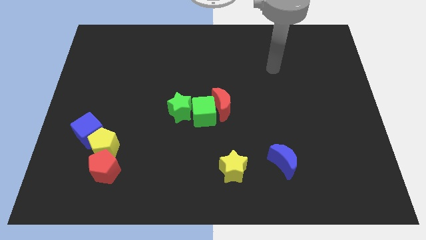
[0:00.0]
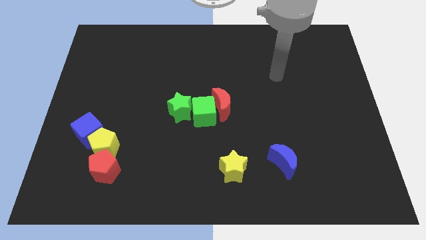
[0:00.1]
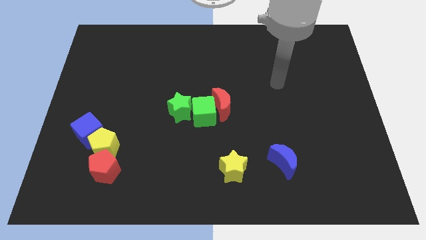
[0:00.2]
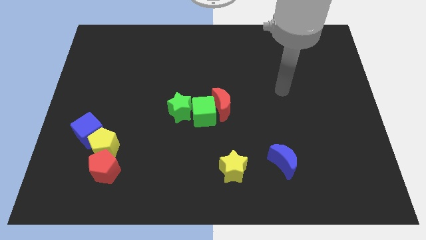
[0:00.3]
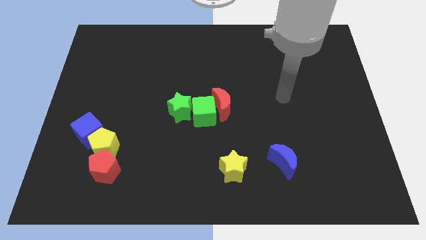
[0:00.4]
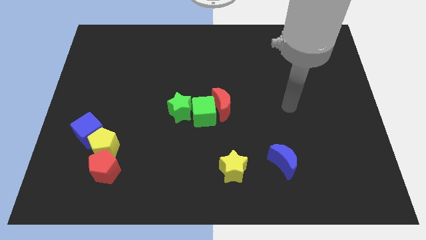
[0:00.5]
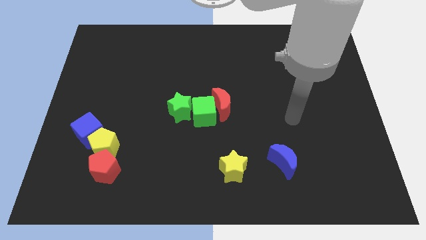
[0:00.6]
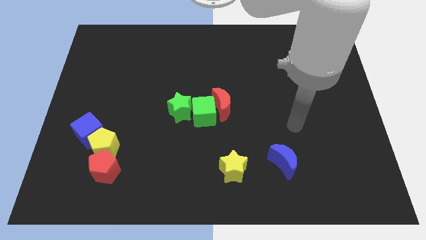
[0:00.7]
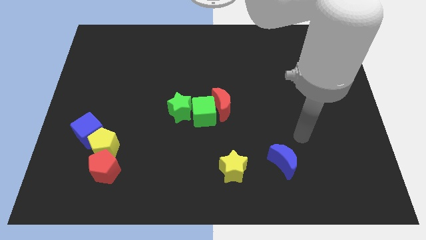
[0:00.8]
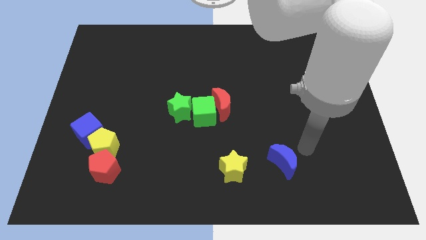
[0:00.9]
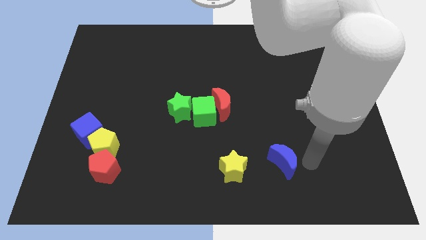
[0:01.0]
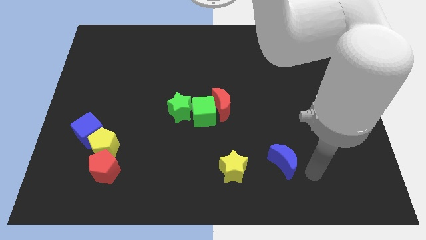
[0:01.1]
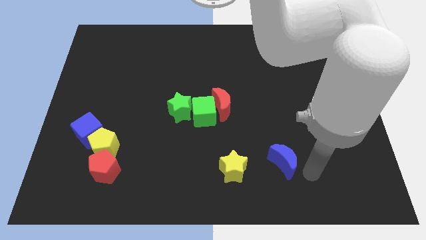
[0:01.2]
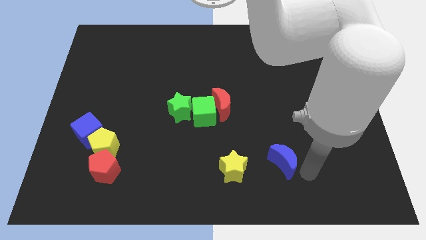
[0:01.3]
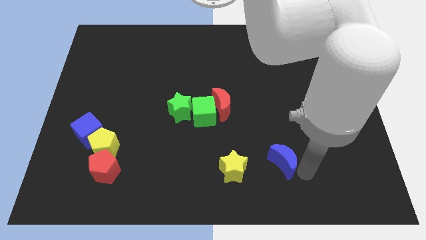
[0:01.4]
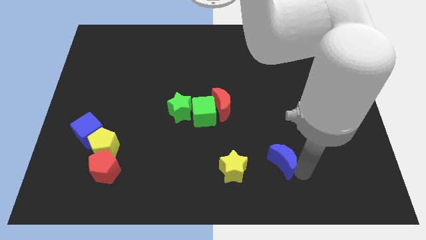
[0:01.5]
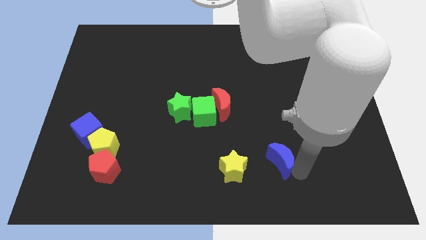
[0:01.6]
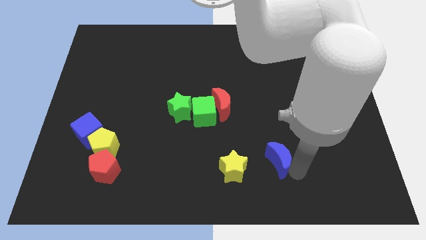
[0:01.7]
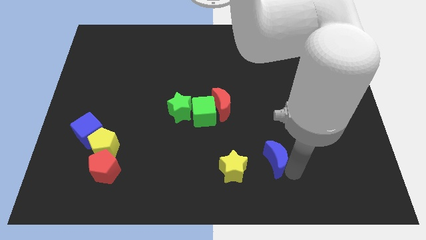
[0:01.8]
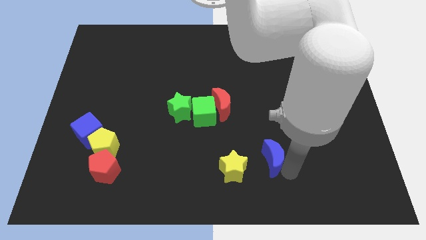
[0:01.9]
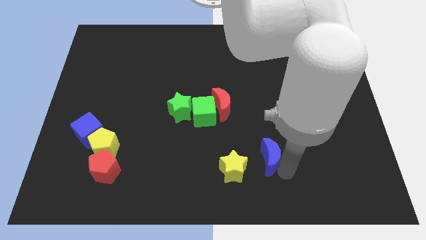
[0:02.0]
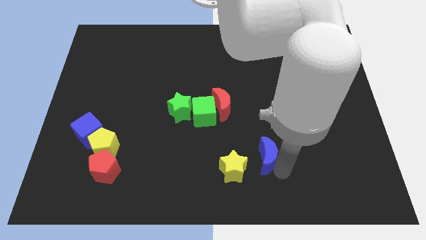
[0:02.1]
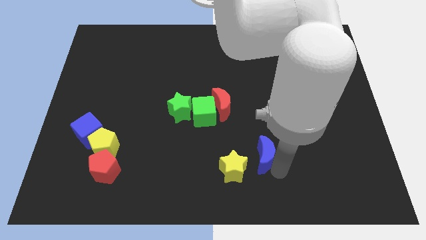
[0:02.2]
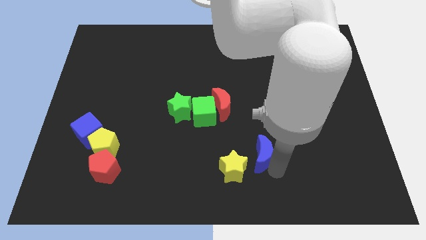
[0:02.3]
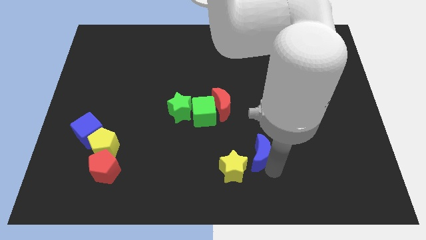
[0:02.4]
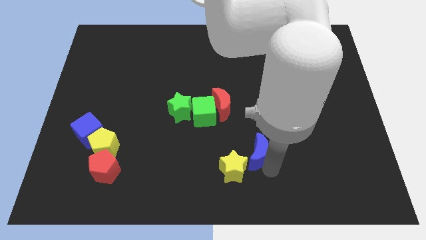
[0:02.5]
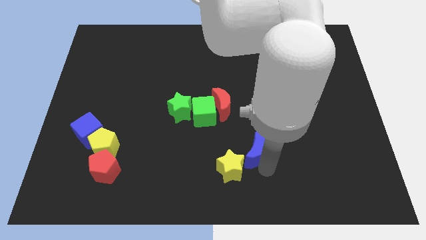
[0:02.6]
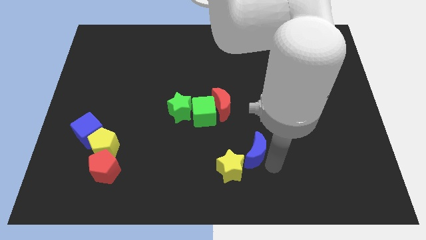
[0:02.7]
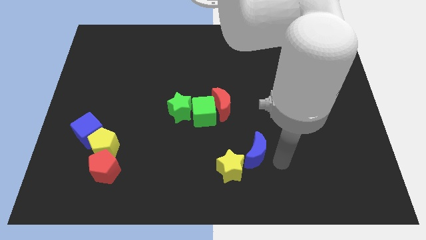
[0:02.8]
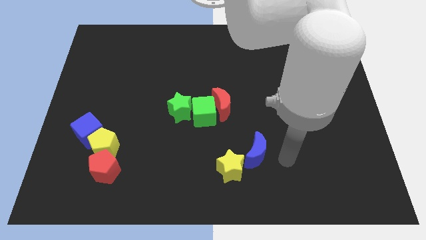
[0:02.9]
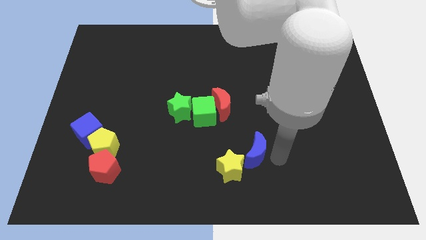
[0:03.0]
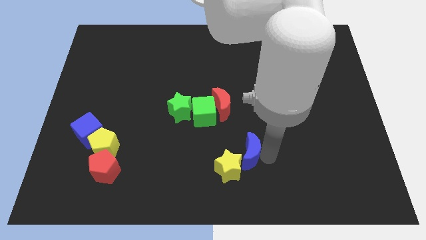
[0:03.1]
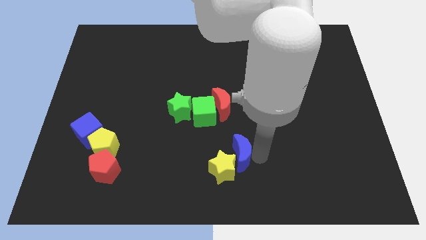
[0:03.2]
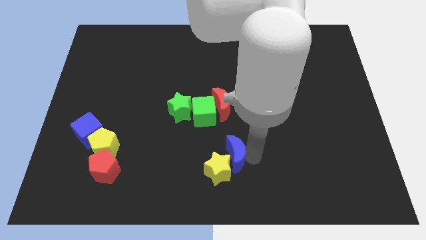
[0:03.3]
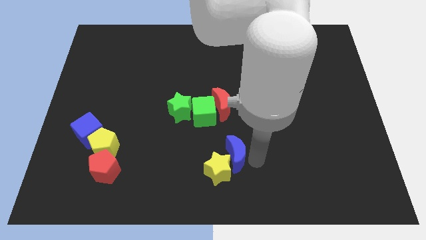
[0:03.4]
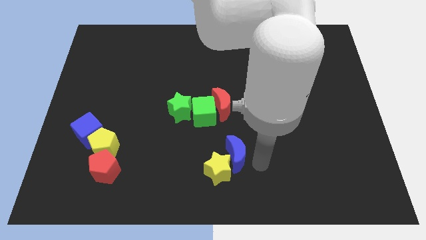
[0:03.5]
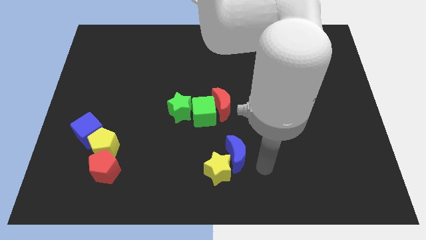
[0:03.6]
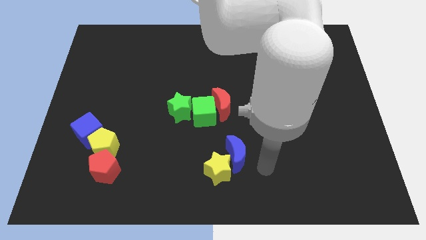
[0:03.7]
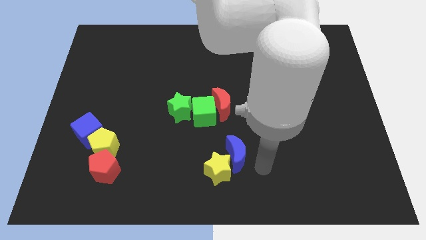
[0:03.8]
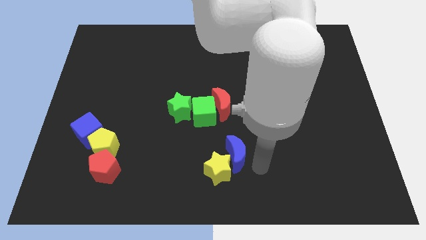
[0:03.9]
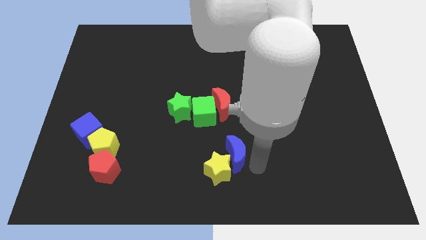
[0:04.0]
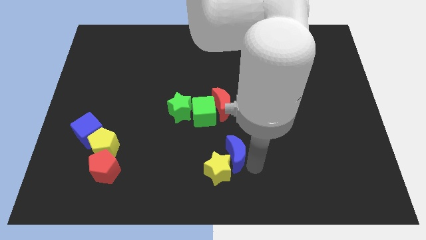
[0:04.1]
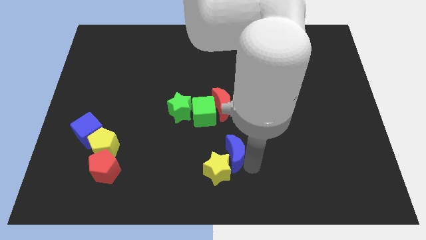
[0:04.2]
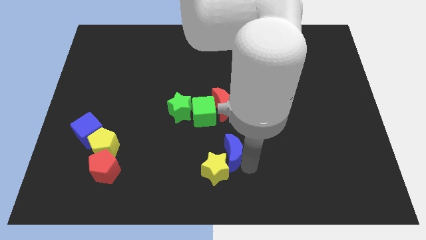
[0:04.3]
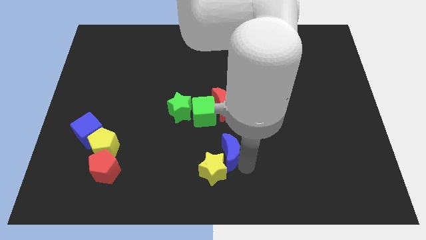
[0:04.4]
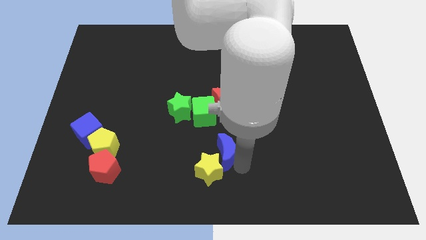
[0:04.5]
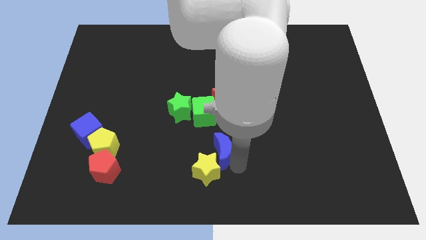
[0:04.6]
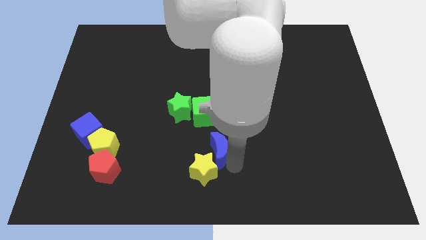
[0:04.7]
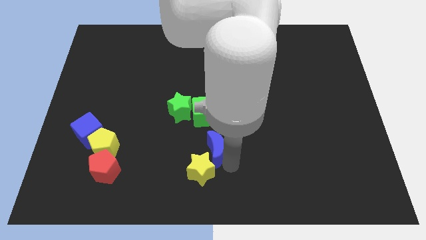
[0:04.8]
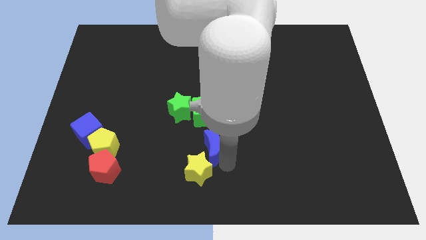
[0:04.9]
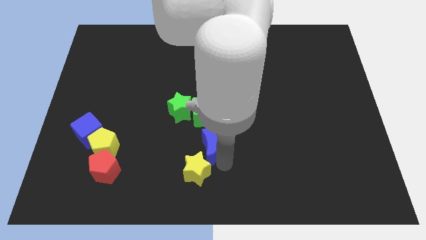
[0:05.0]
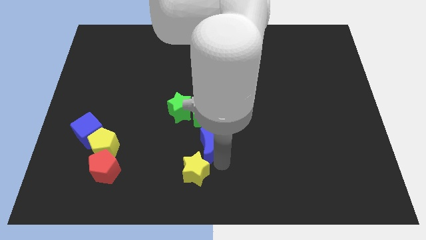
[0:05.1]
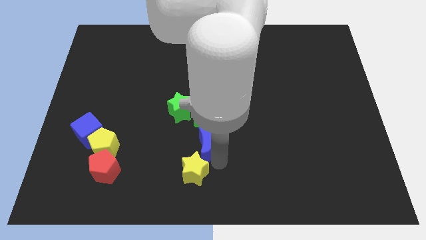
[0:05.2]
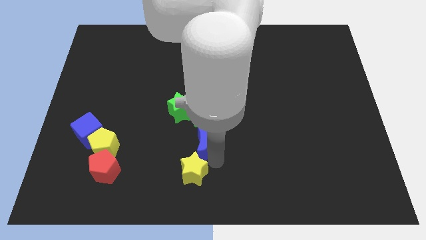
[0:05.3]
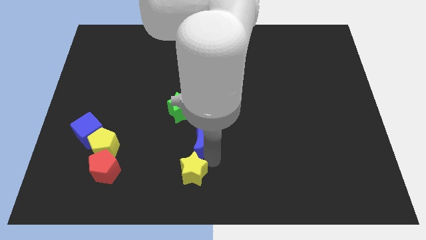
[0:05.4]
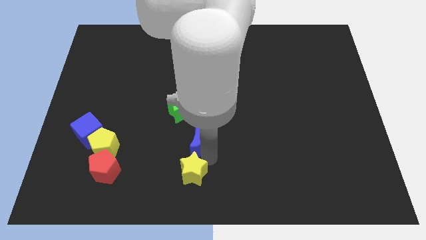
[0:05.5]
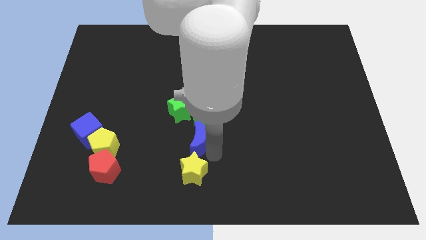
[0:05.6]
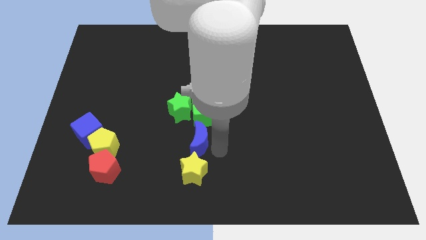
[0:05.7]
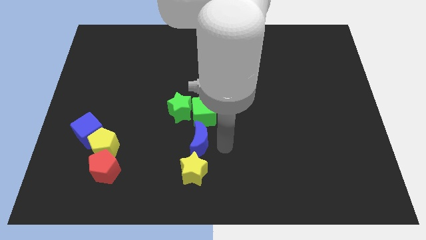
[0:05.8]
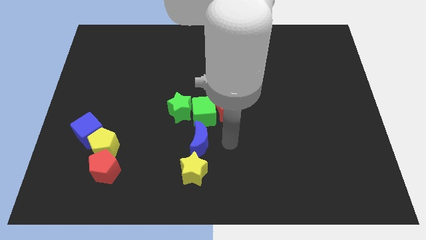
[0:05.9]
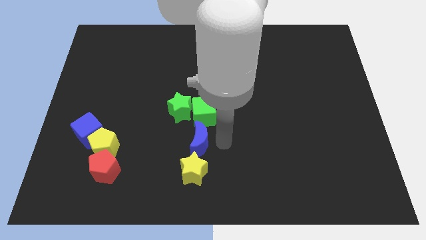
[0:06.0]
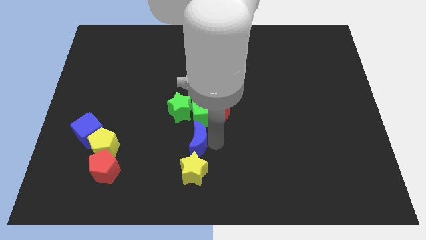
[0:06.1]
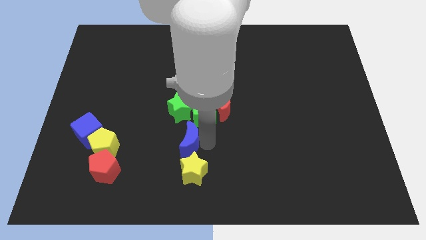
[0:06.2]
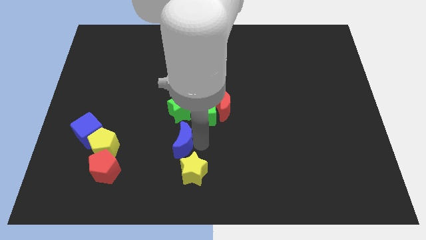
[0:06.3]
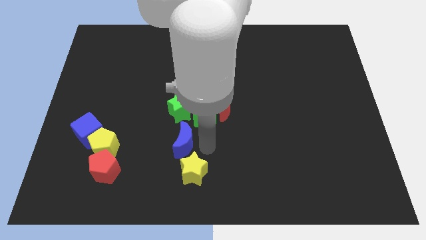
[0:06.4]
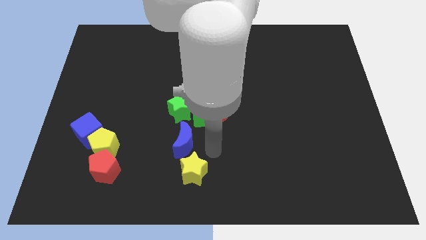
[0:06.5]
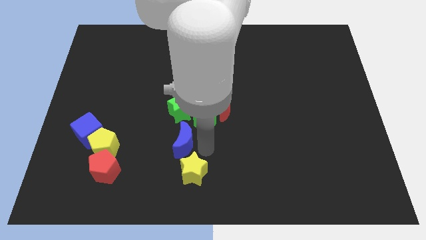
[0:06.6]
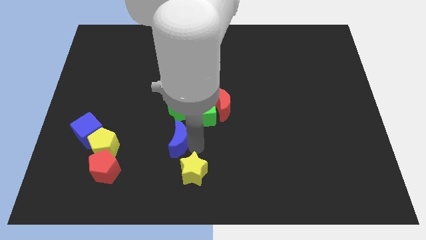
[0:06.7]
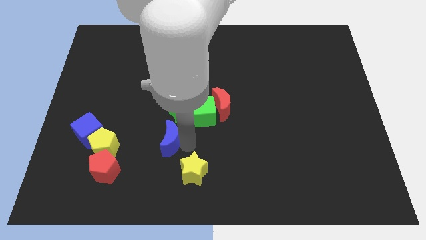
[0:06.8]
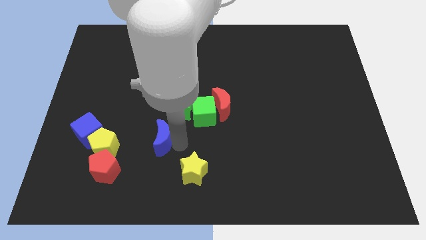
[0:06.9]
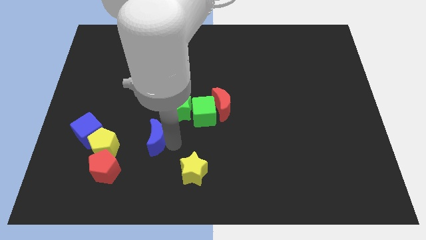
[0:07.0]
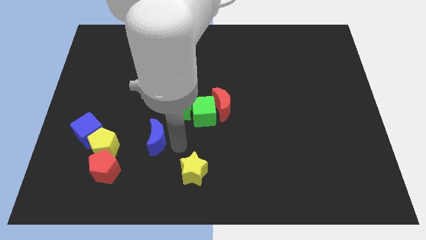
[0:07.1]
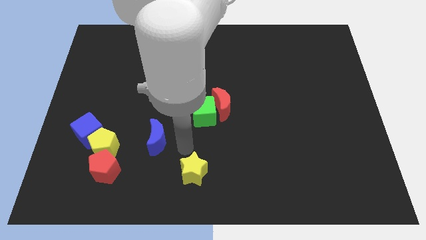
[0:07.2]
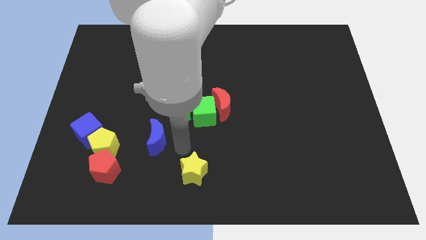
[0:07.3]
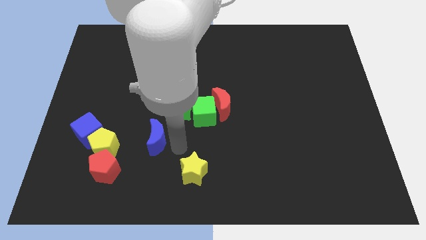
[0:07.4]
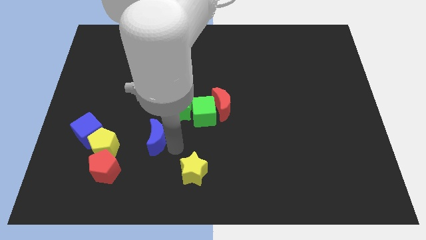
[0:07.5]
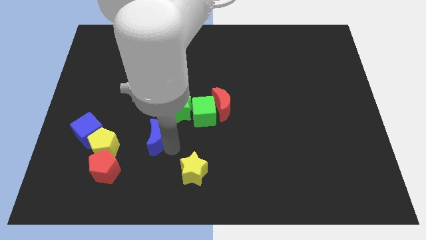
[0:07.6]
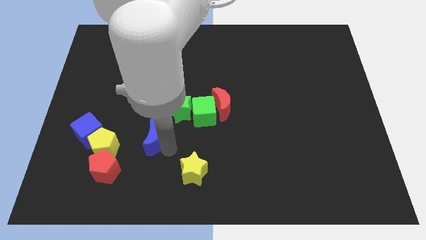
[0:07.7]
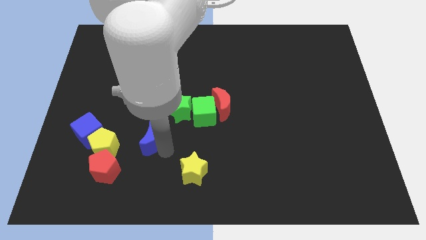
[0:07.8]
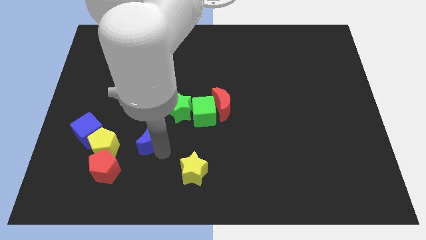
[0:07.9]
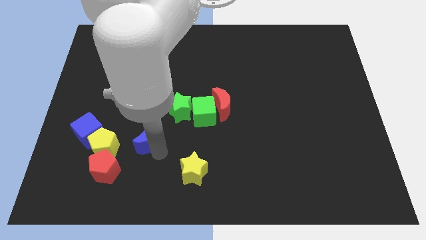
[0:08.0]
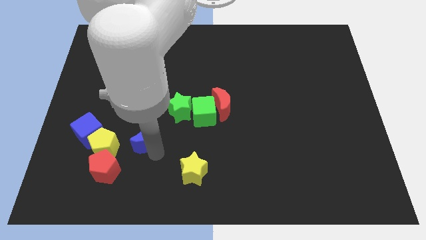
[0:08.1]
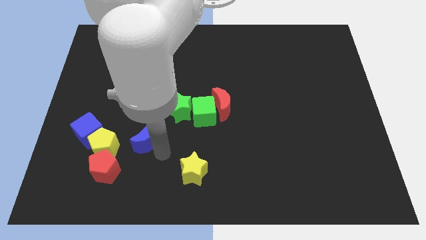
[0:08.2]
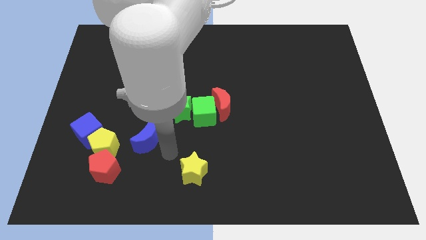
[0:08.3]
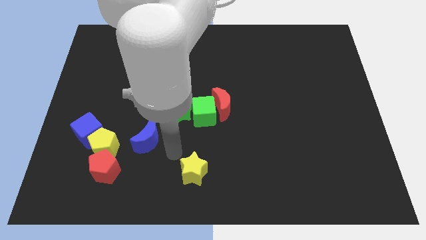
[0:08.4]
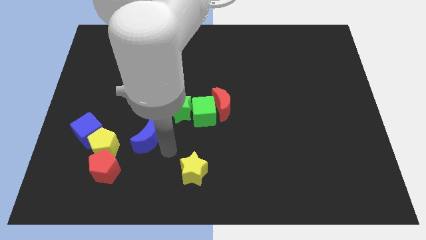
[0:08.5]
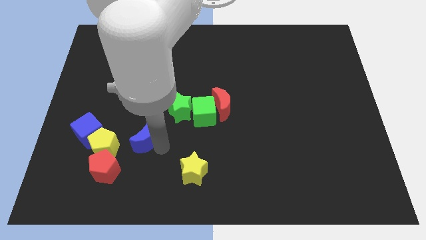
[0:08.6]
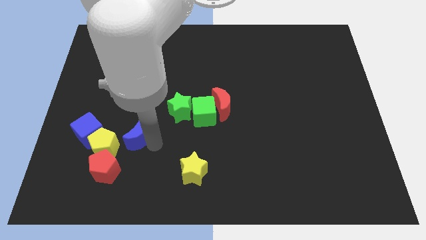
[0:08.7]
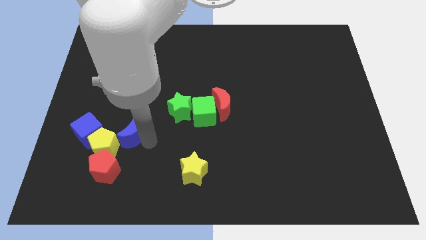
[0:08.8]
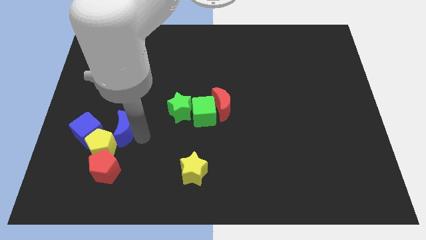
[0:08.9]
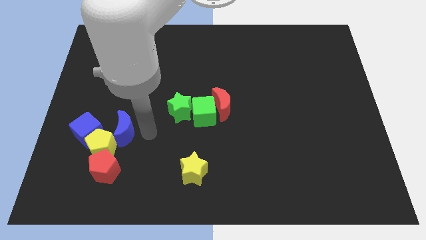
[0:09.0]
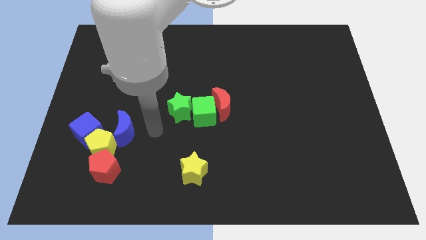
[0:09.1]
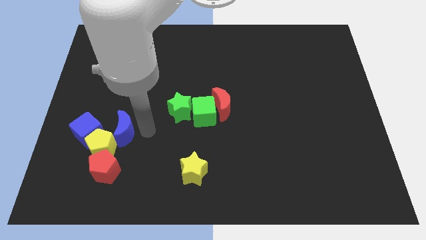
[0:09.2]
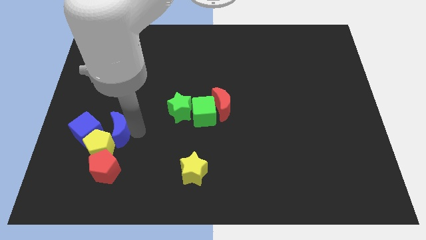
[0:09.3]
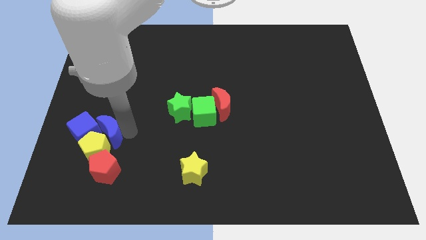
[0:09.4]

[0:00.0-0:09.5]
put the blue moon towards the blue cube
